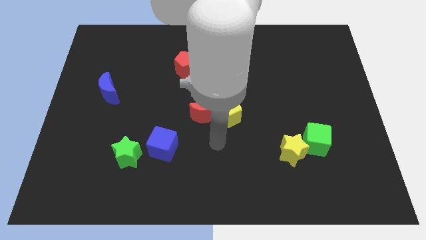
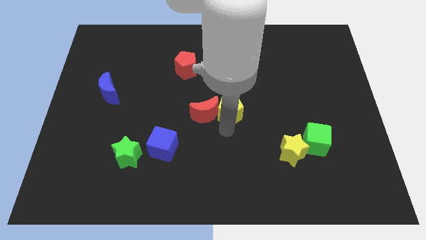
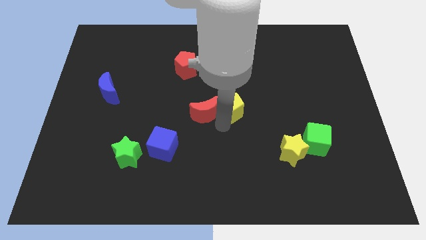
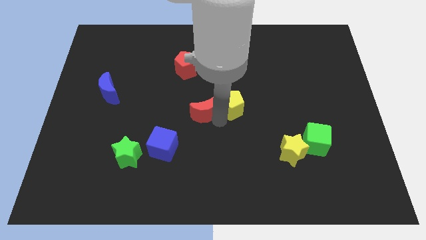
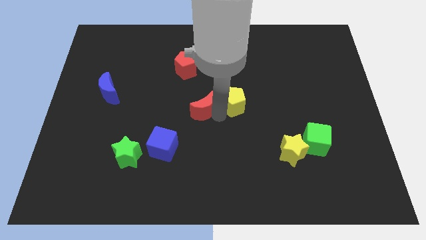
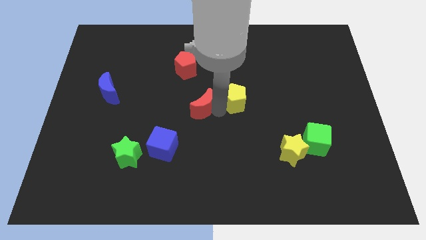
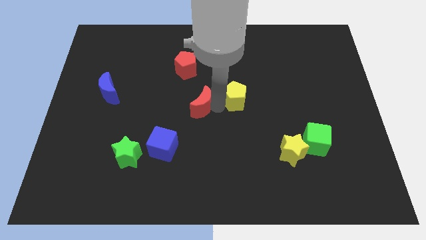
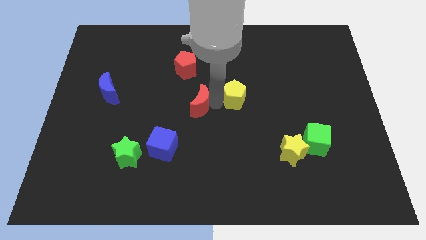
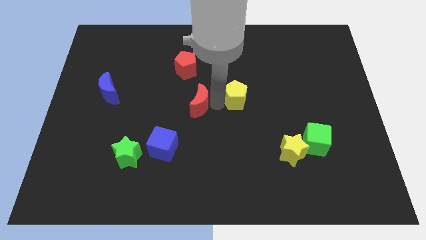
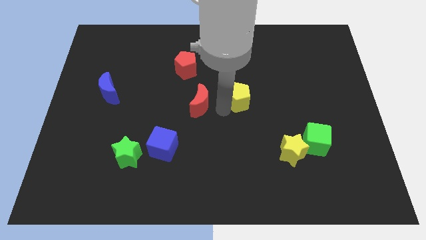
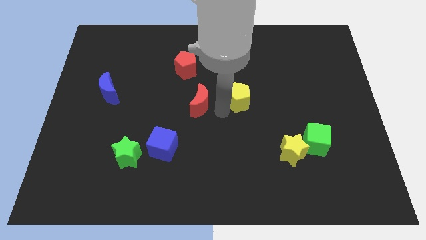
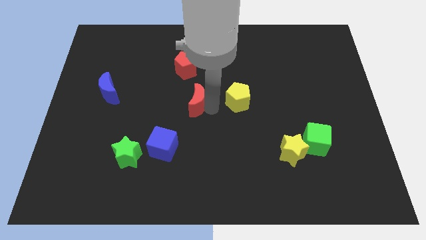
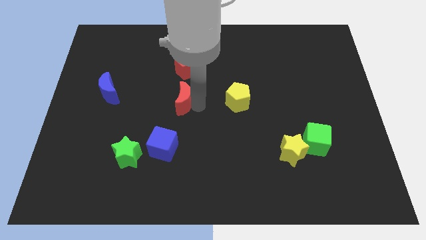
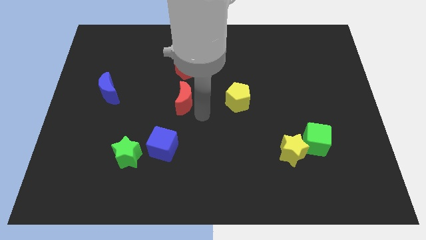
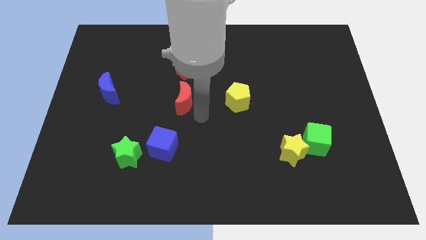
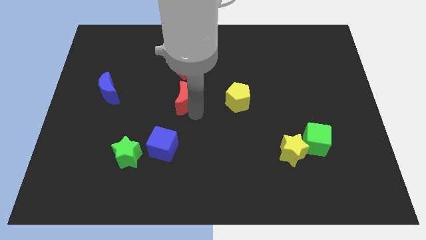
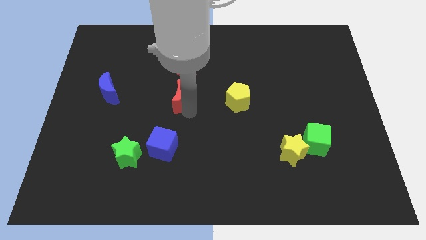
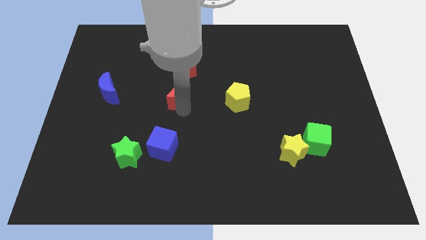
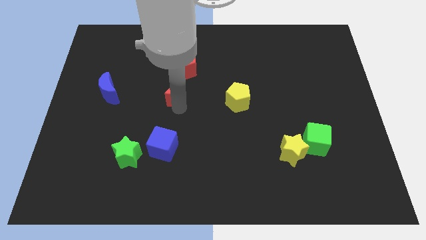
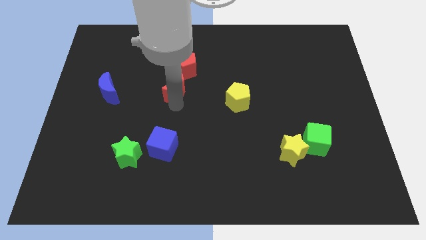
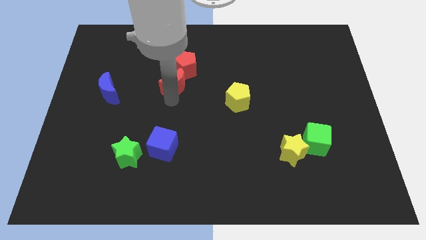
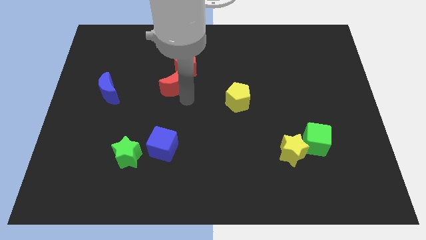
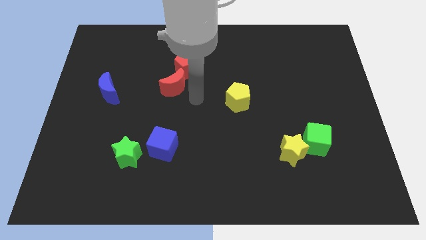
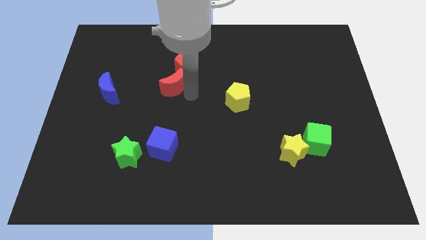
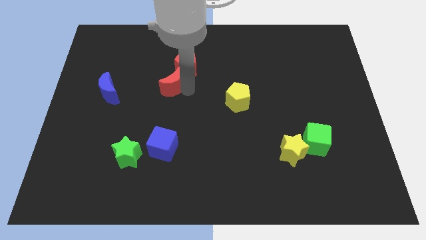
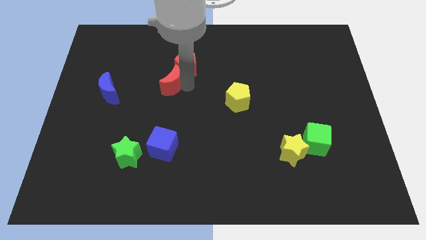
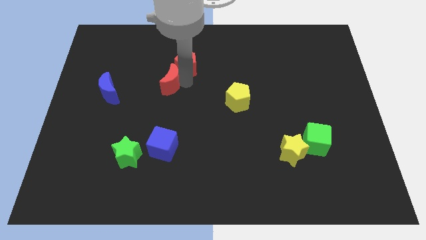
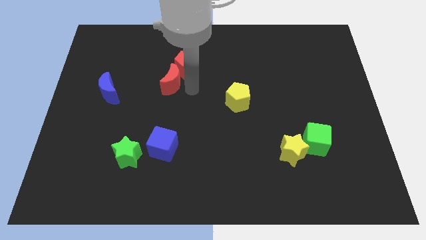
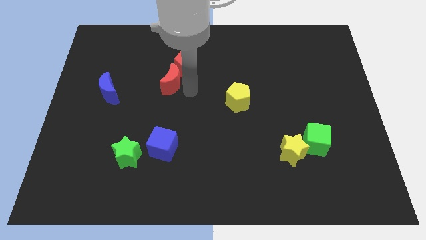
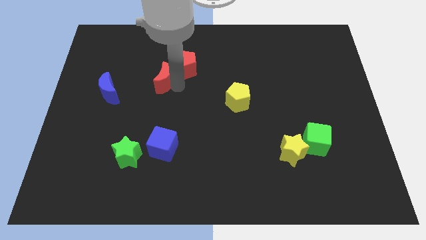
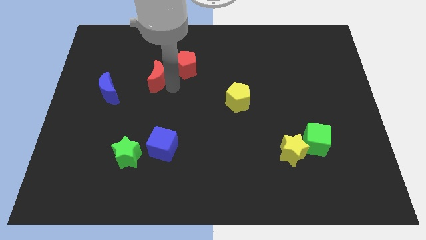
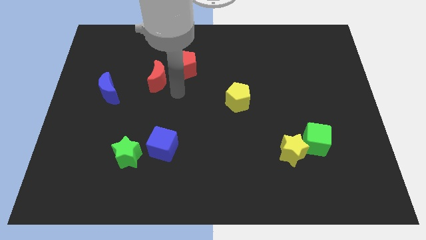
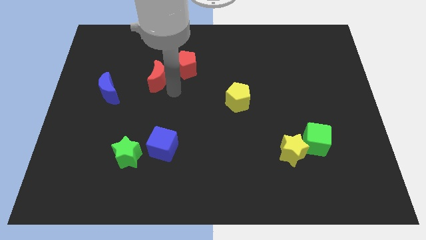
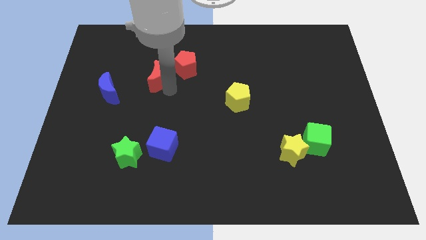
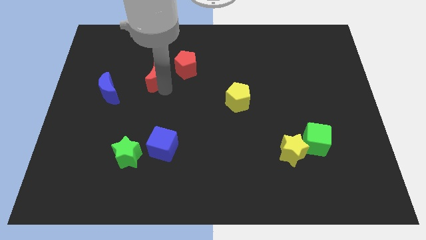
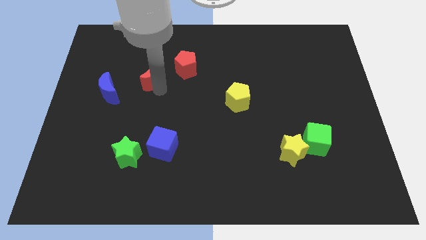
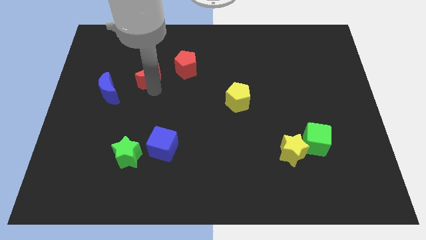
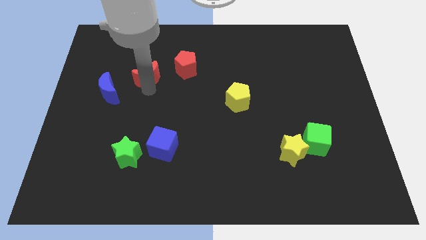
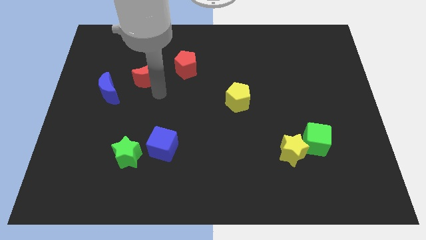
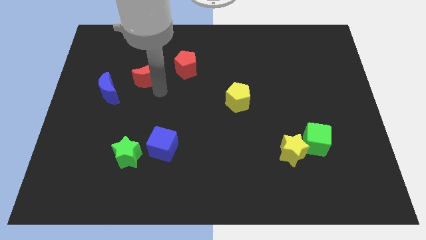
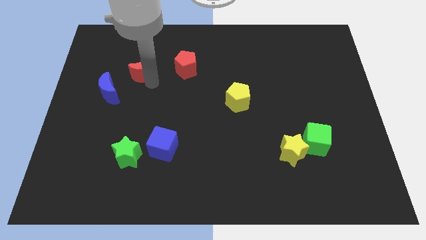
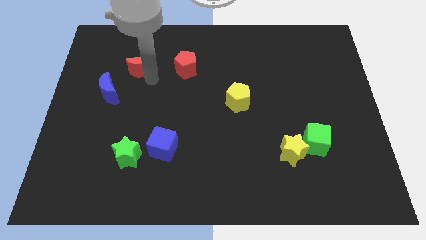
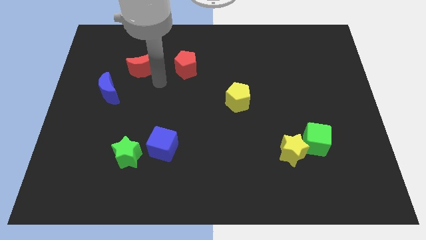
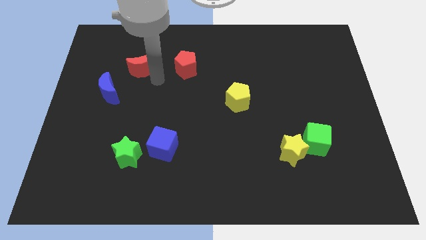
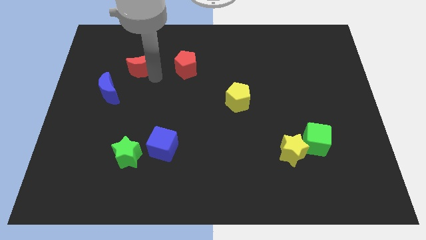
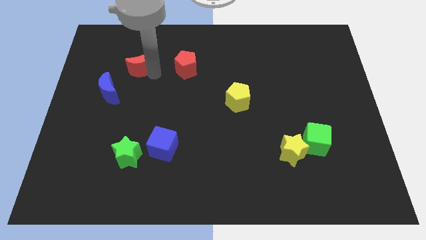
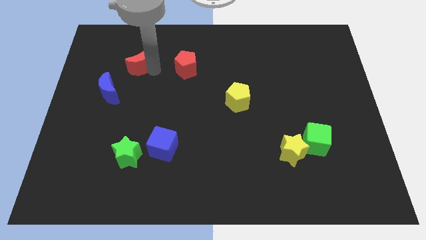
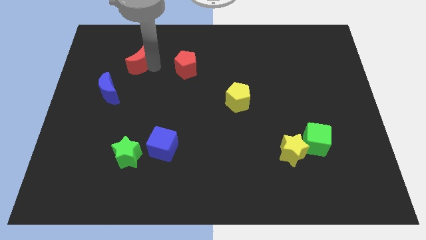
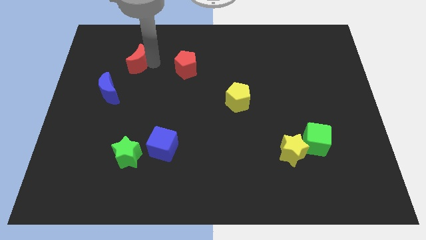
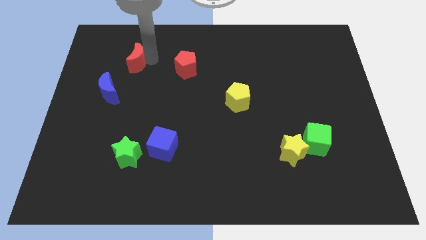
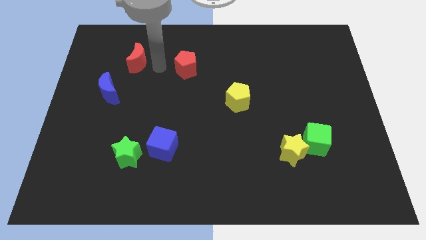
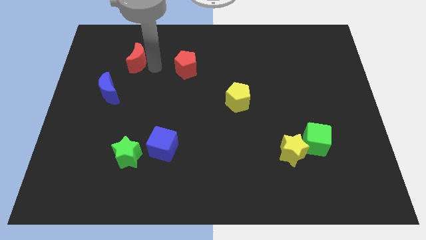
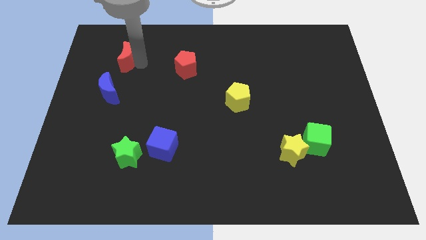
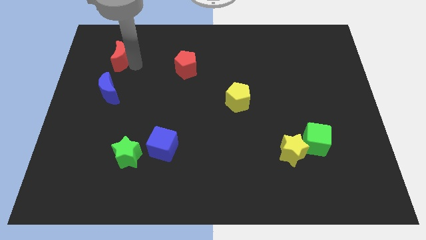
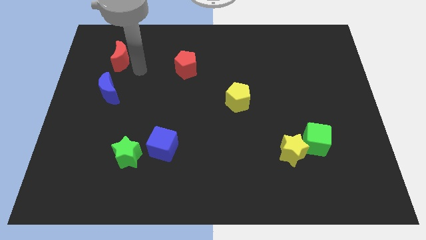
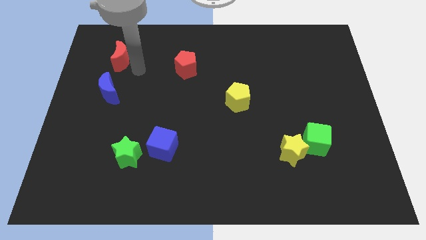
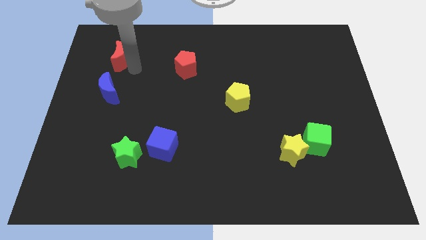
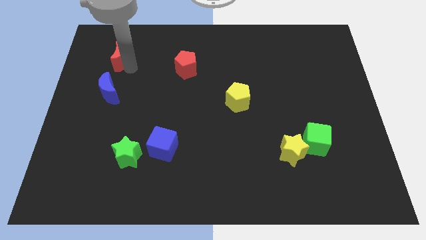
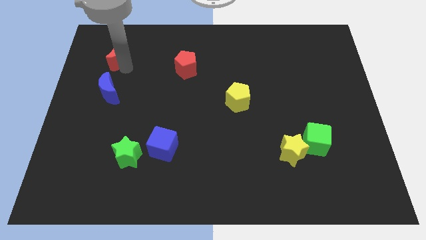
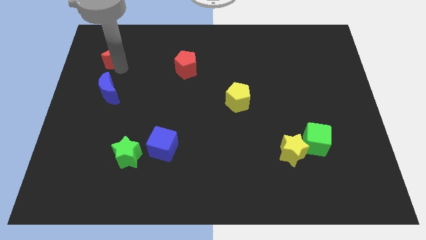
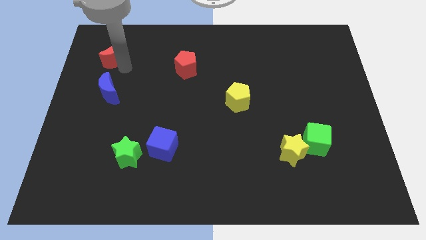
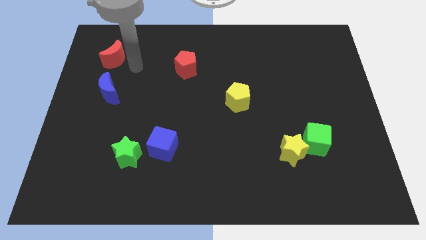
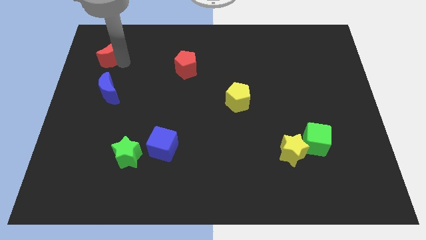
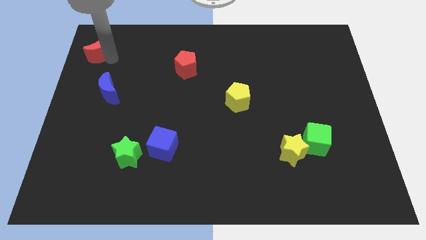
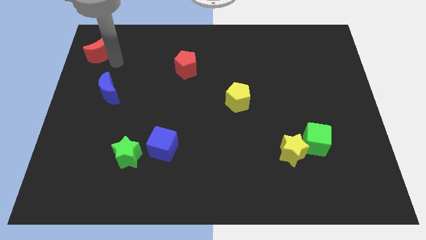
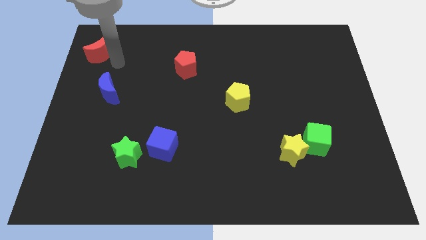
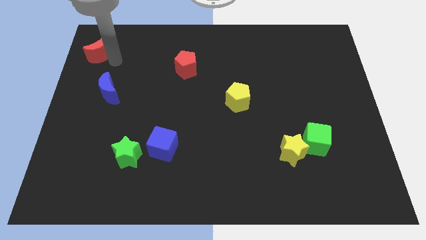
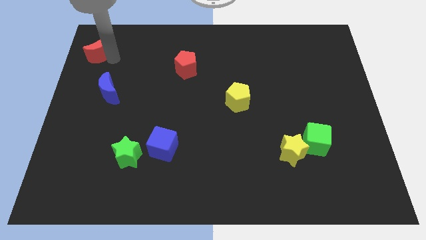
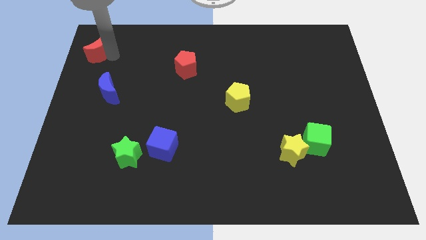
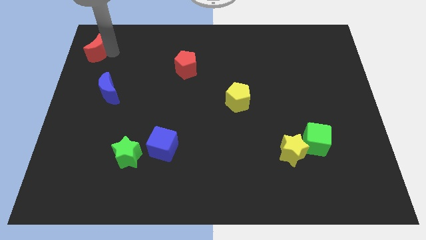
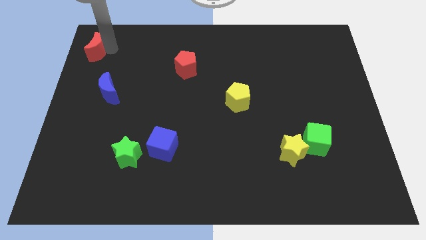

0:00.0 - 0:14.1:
slide the red moon to the top left corner
